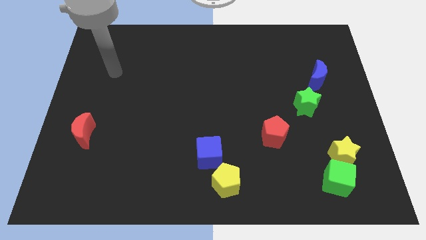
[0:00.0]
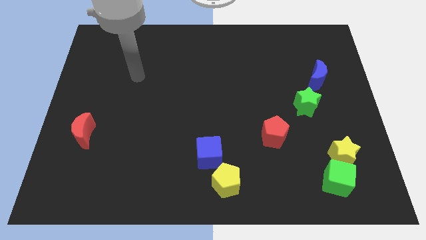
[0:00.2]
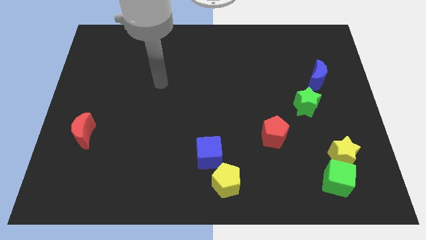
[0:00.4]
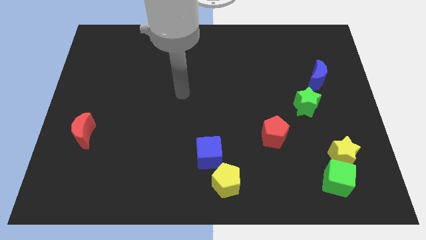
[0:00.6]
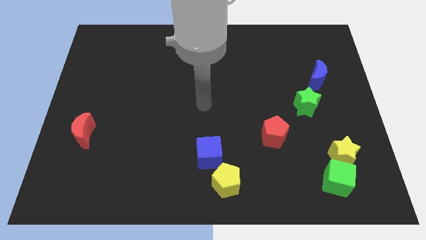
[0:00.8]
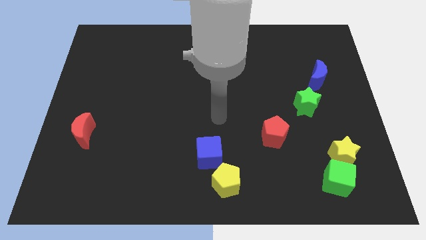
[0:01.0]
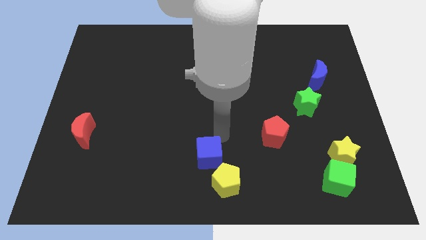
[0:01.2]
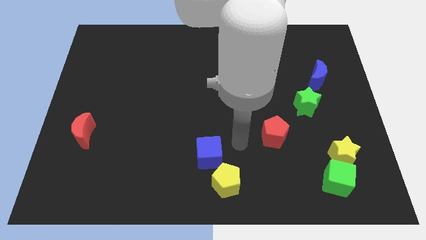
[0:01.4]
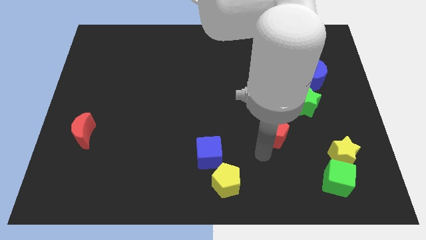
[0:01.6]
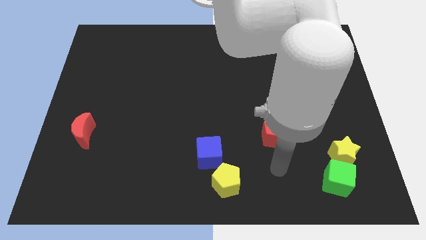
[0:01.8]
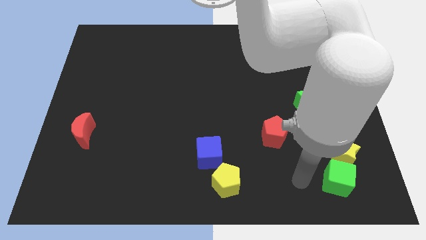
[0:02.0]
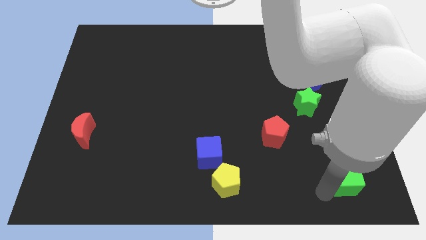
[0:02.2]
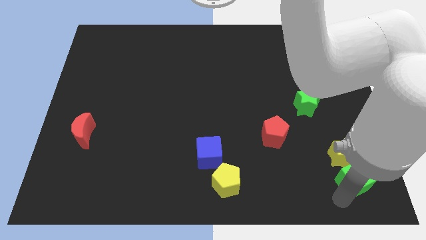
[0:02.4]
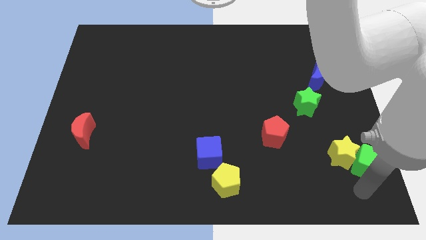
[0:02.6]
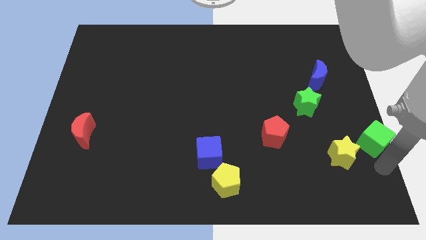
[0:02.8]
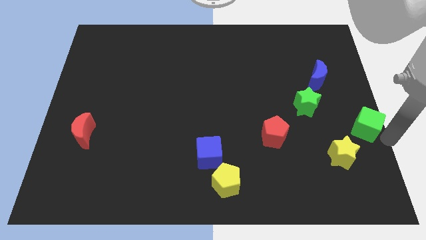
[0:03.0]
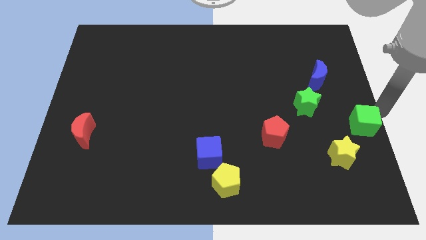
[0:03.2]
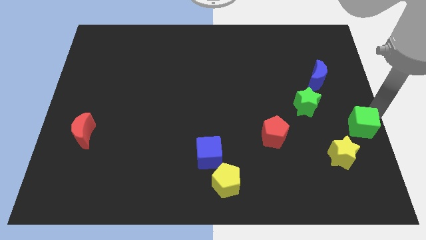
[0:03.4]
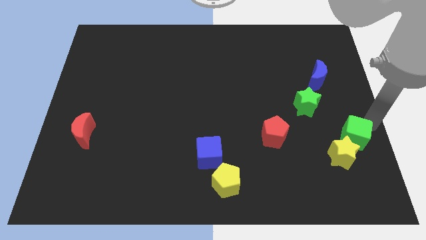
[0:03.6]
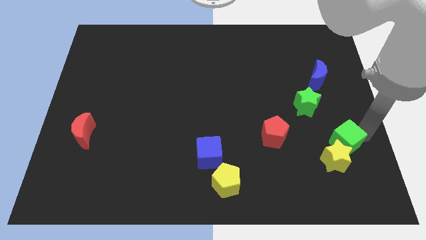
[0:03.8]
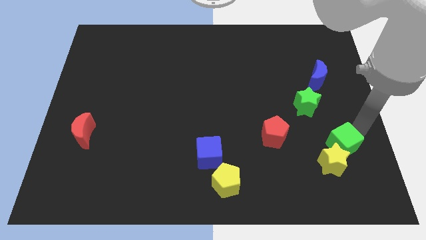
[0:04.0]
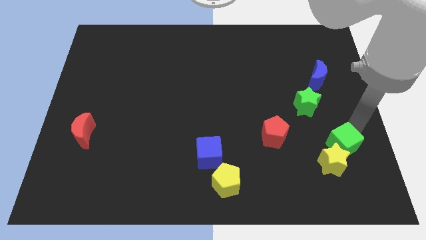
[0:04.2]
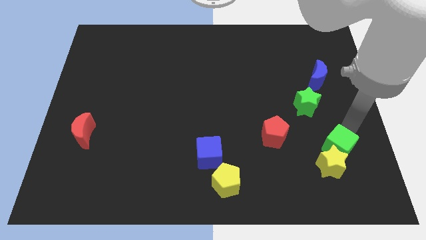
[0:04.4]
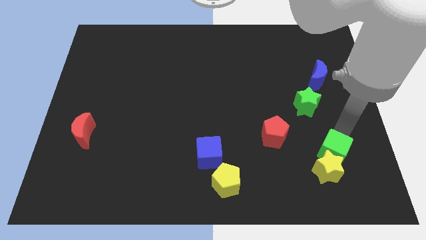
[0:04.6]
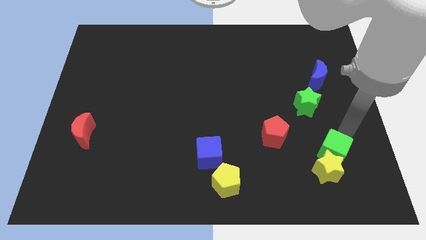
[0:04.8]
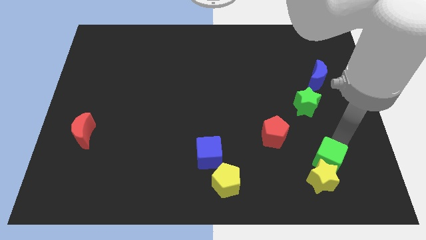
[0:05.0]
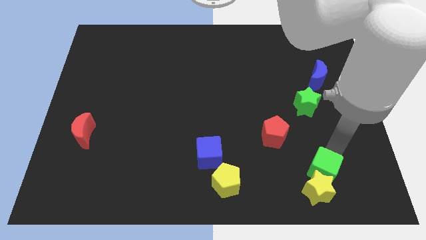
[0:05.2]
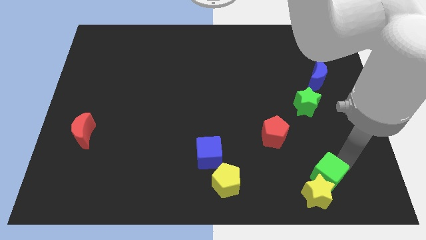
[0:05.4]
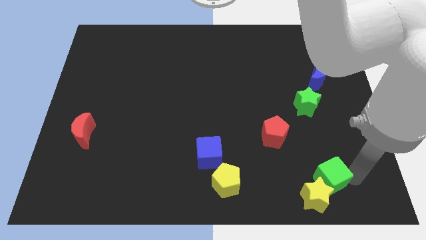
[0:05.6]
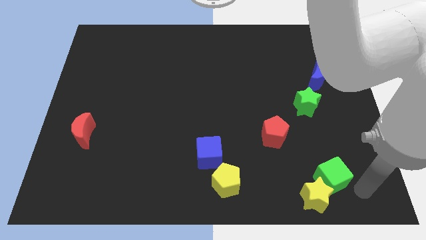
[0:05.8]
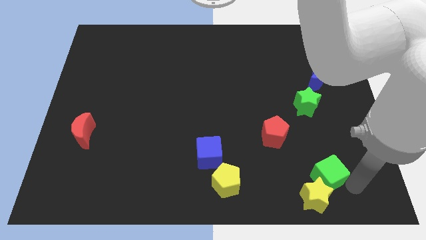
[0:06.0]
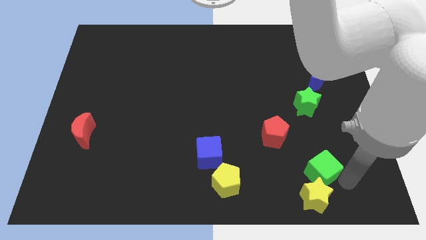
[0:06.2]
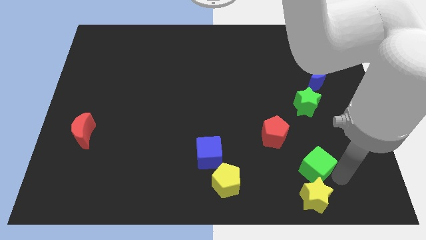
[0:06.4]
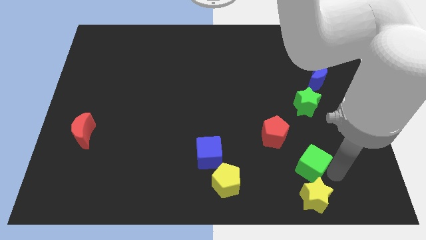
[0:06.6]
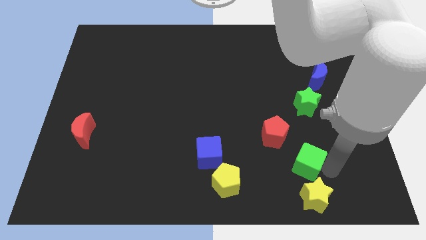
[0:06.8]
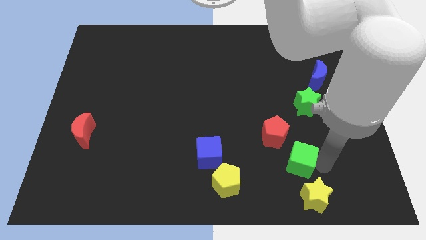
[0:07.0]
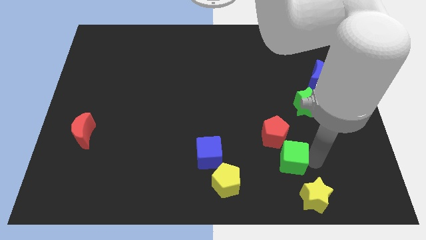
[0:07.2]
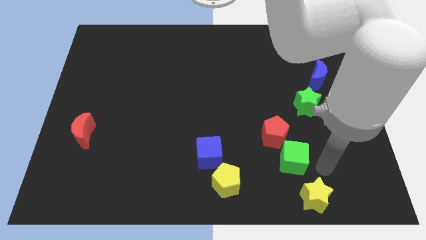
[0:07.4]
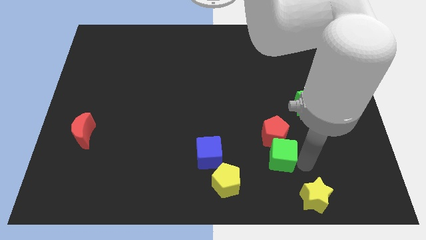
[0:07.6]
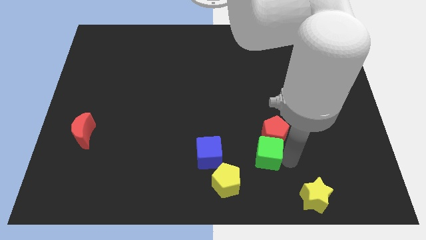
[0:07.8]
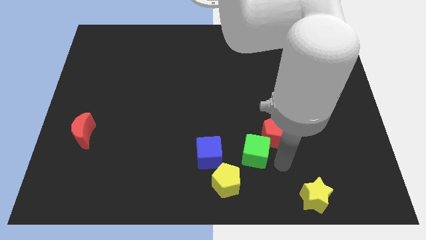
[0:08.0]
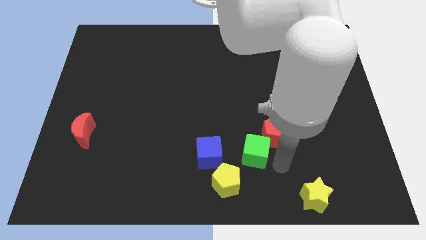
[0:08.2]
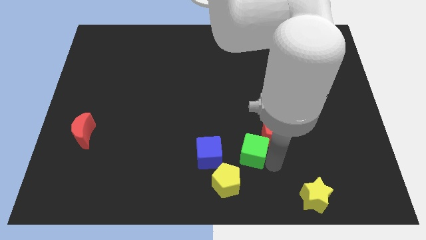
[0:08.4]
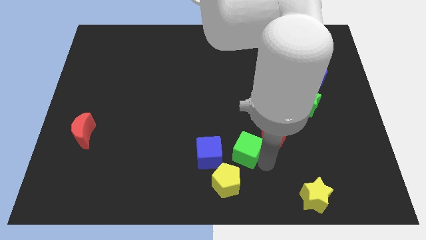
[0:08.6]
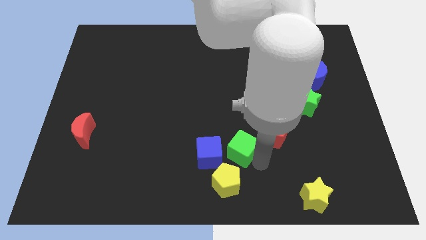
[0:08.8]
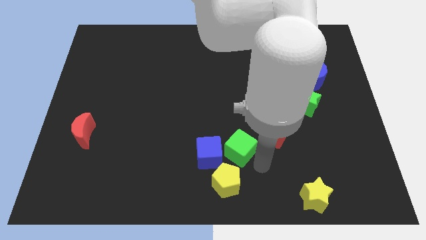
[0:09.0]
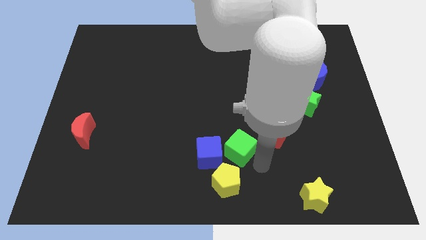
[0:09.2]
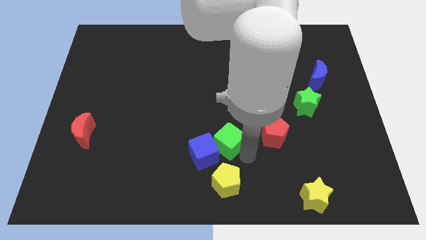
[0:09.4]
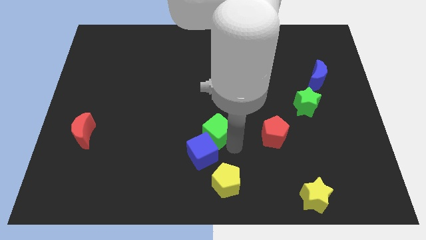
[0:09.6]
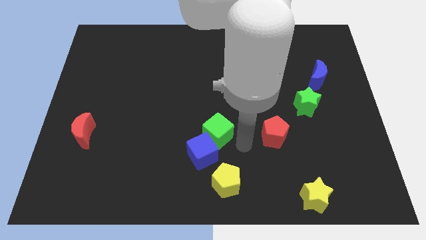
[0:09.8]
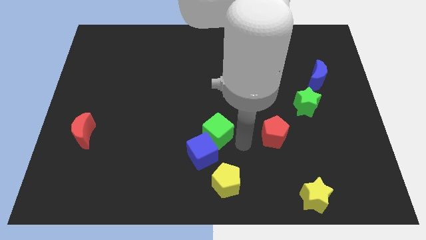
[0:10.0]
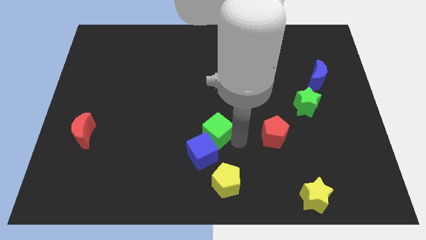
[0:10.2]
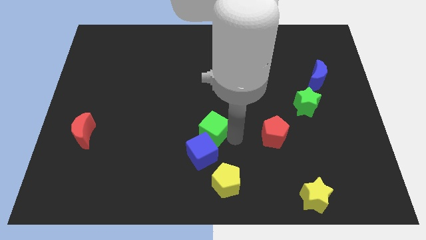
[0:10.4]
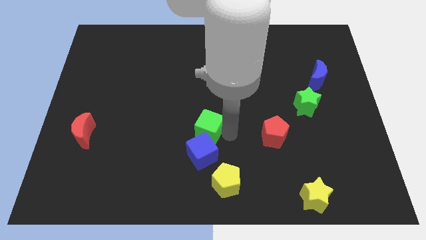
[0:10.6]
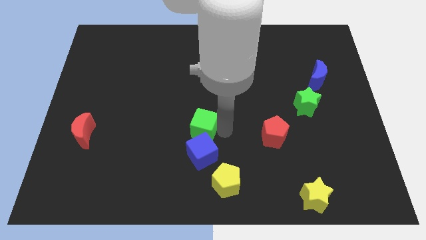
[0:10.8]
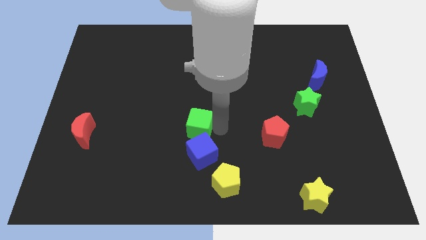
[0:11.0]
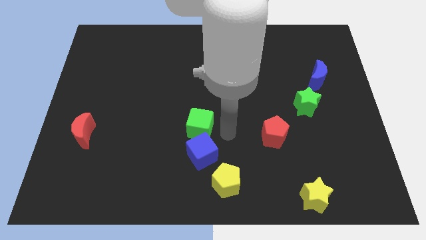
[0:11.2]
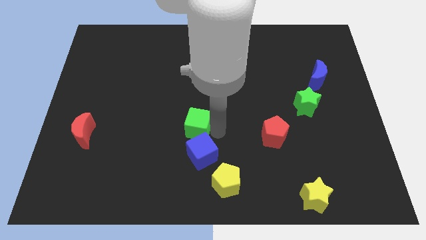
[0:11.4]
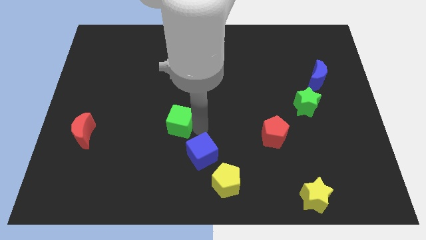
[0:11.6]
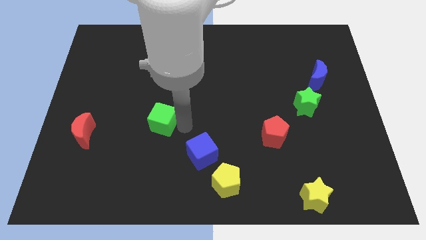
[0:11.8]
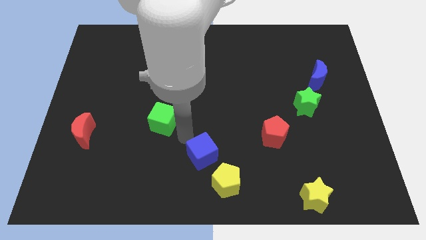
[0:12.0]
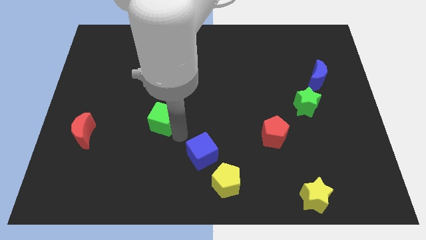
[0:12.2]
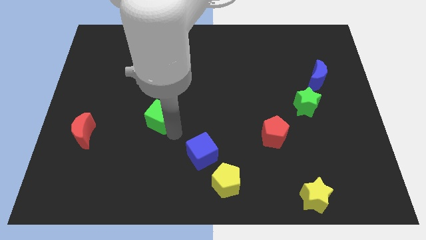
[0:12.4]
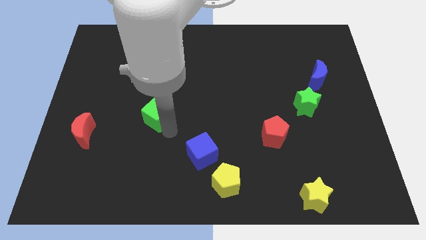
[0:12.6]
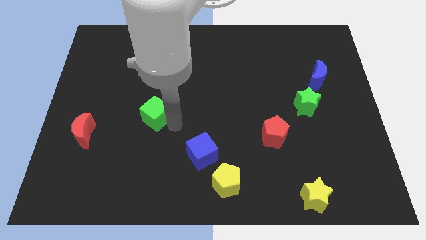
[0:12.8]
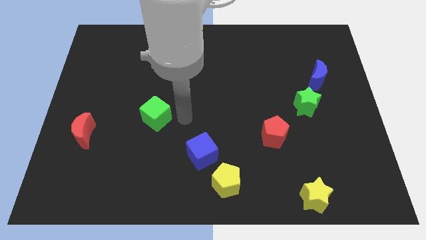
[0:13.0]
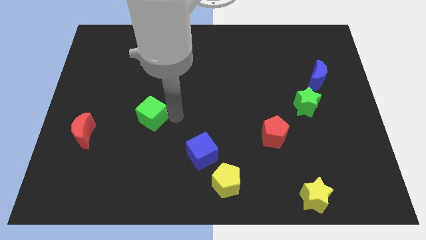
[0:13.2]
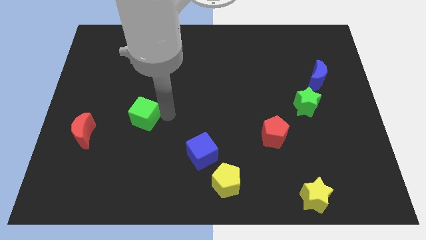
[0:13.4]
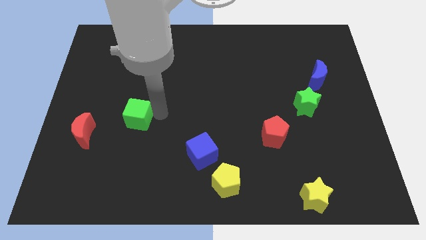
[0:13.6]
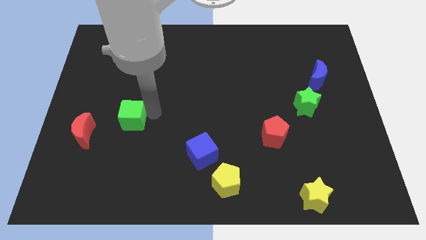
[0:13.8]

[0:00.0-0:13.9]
put the green cube to the top right side of the red moon

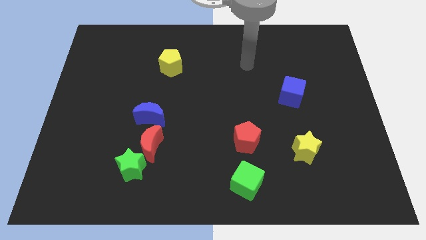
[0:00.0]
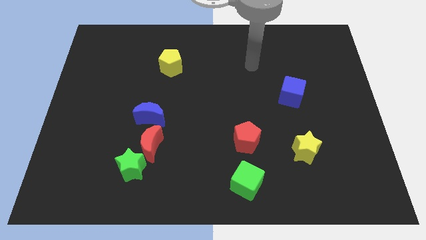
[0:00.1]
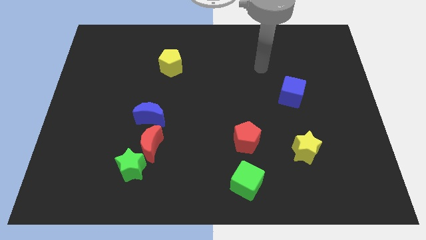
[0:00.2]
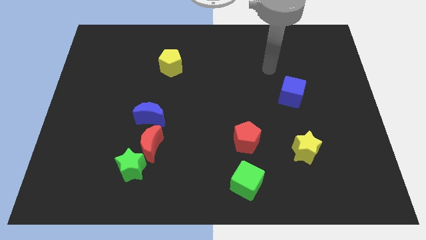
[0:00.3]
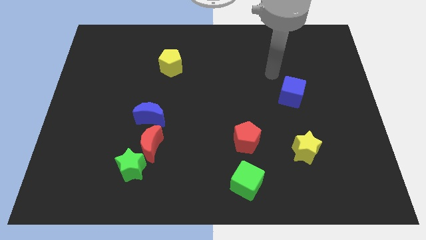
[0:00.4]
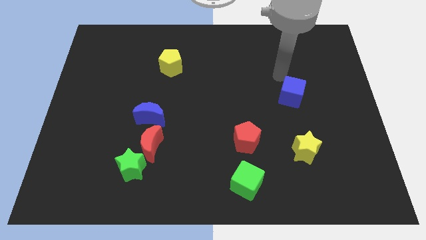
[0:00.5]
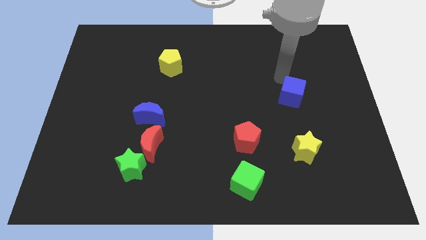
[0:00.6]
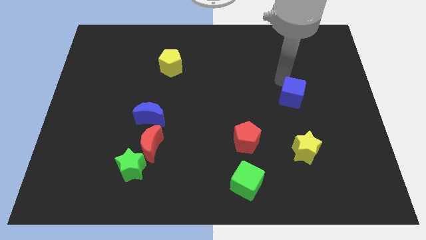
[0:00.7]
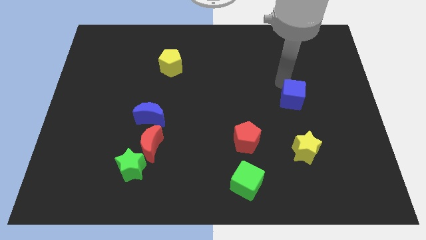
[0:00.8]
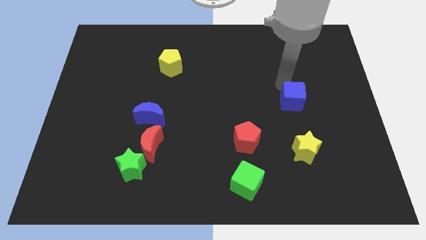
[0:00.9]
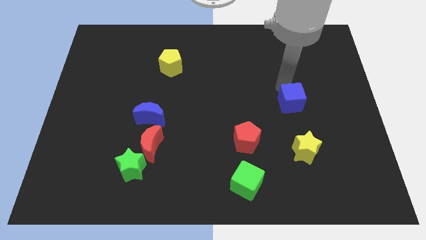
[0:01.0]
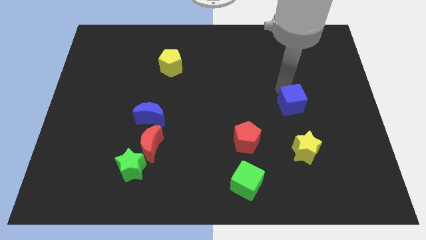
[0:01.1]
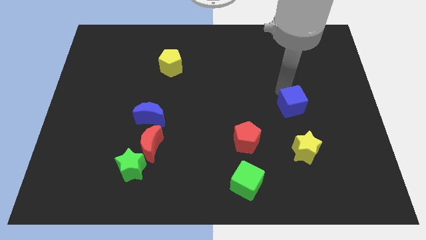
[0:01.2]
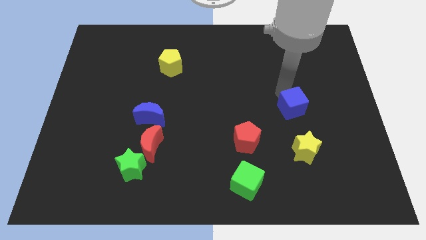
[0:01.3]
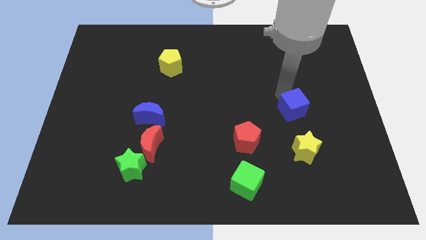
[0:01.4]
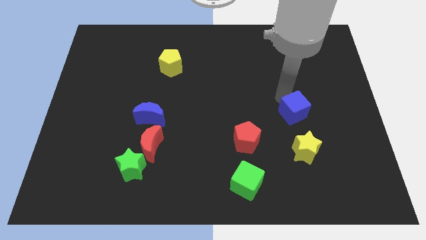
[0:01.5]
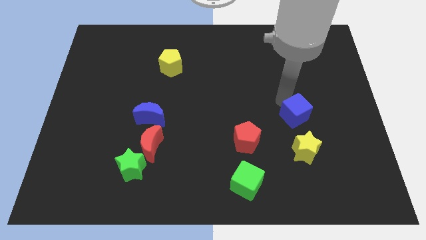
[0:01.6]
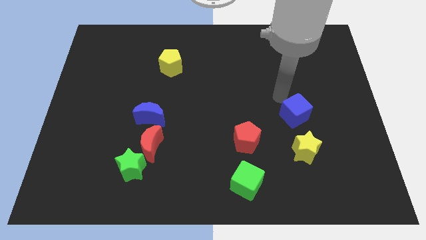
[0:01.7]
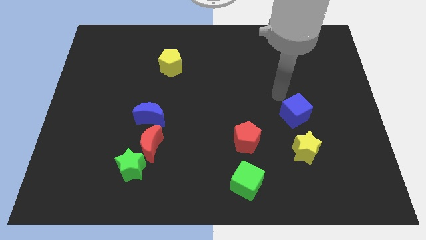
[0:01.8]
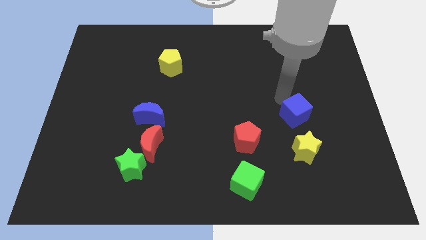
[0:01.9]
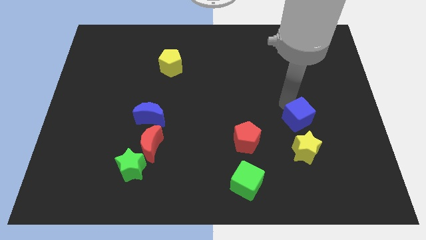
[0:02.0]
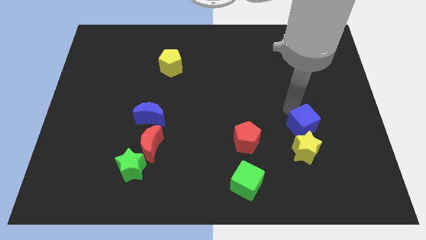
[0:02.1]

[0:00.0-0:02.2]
move the blue cube just right of the red pentagon
